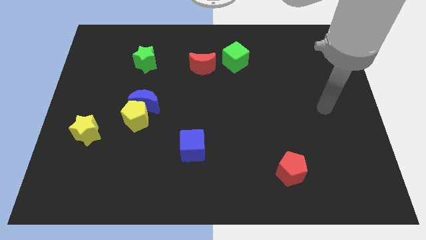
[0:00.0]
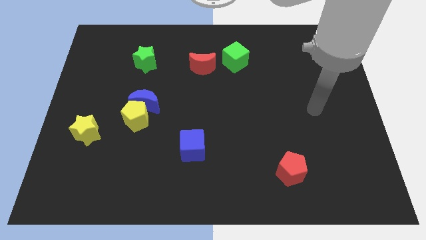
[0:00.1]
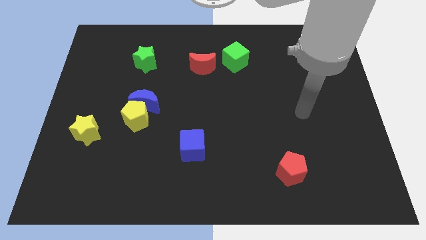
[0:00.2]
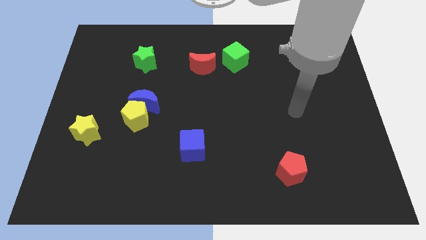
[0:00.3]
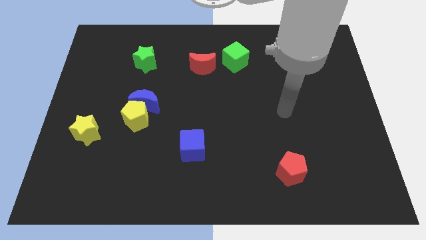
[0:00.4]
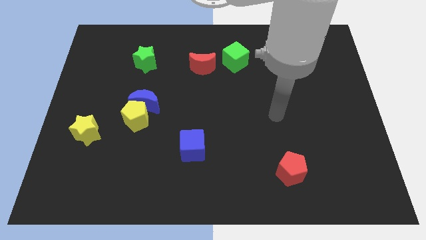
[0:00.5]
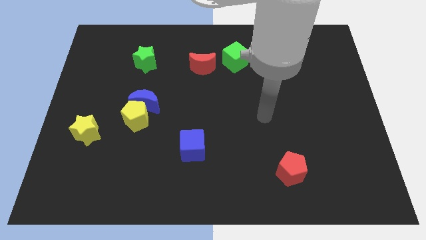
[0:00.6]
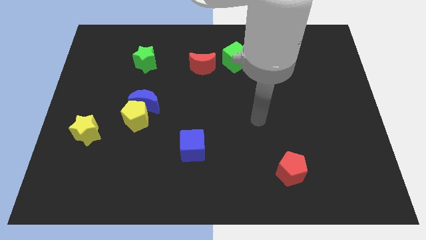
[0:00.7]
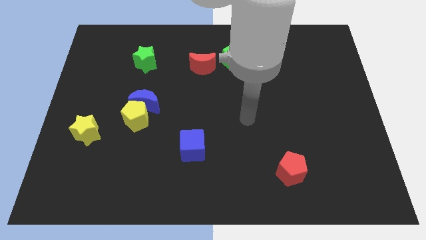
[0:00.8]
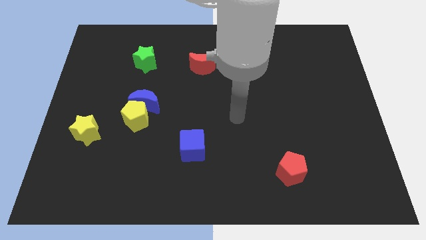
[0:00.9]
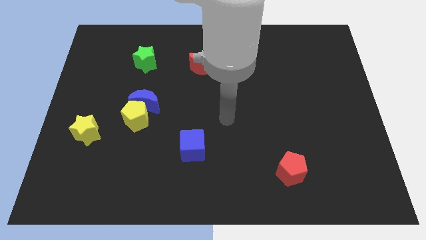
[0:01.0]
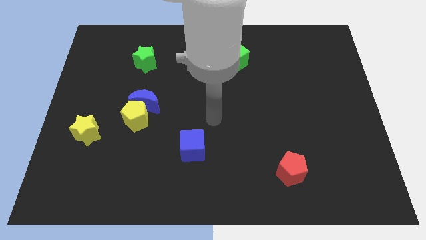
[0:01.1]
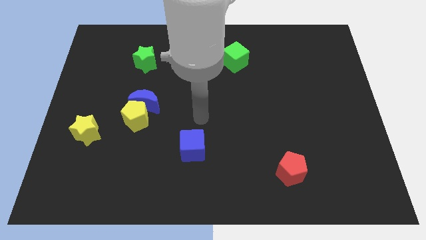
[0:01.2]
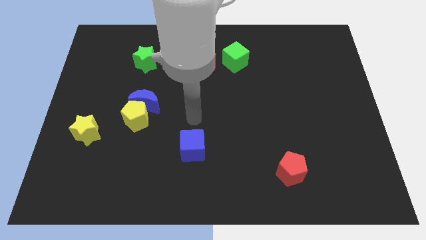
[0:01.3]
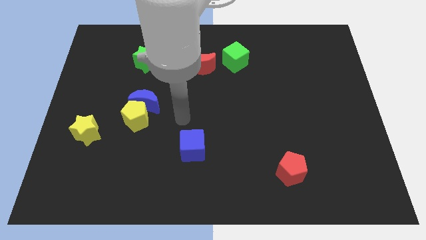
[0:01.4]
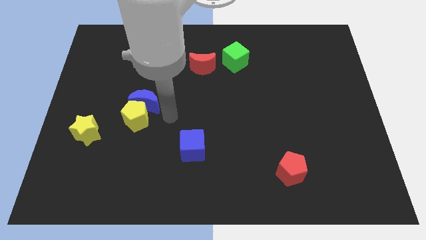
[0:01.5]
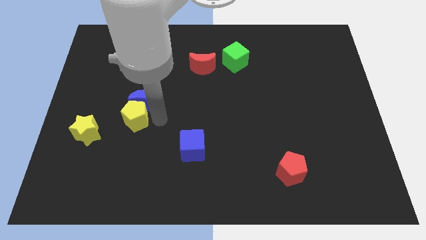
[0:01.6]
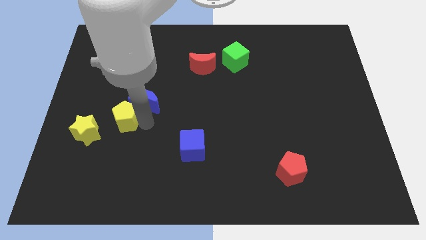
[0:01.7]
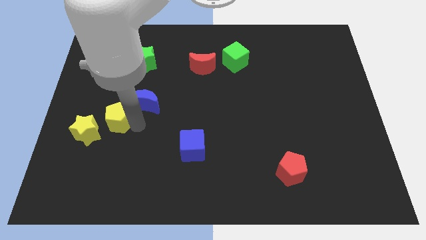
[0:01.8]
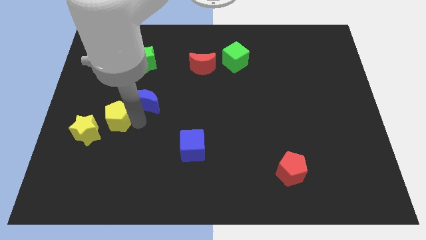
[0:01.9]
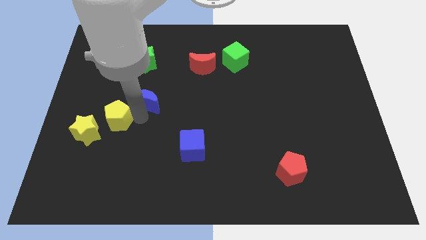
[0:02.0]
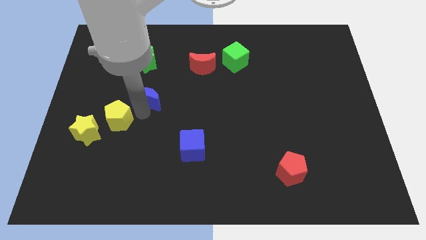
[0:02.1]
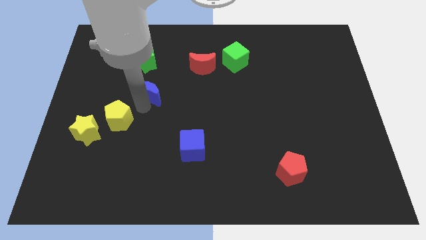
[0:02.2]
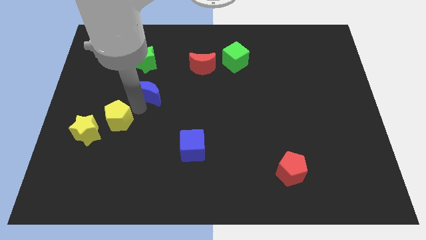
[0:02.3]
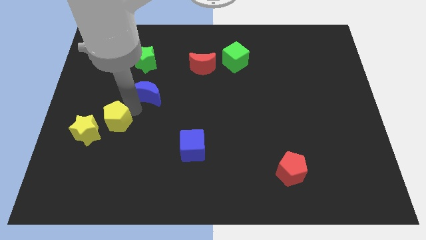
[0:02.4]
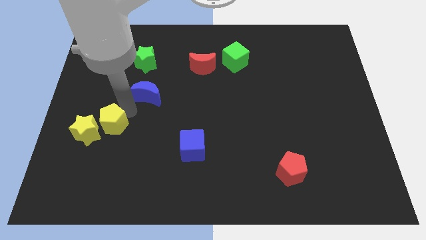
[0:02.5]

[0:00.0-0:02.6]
pull the blue moon apart from the yellow pentagon

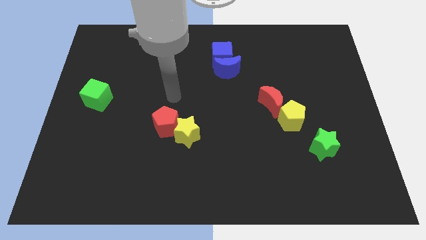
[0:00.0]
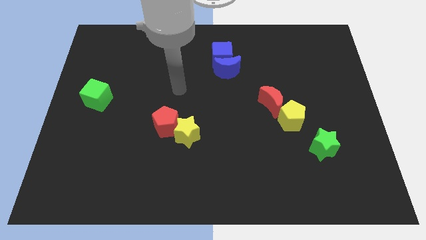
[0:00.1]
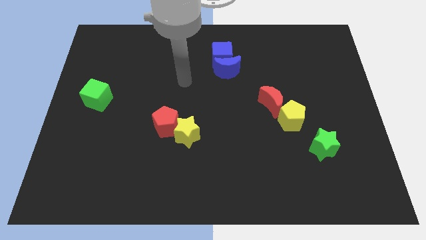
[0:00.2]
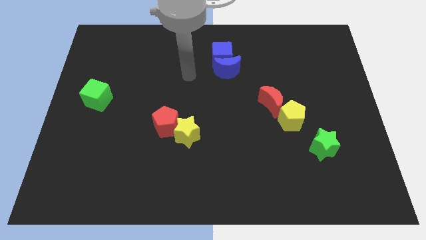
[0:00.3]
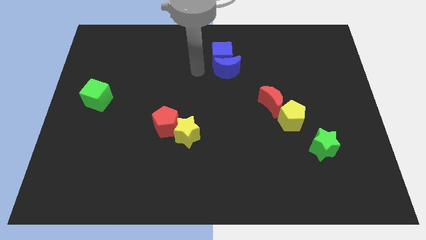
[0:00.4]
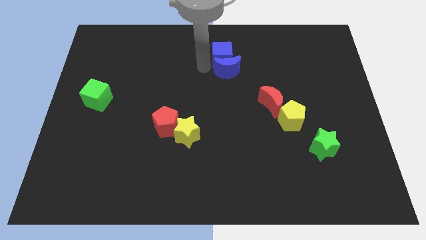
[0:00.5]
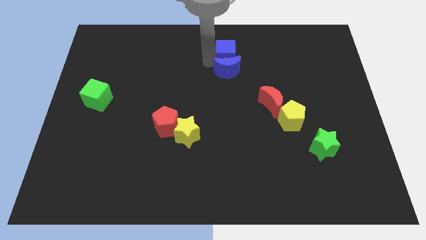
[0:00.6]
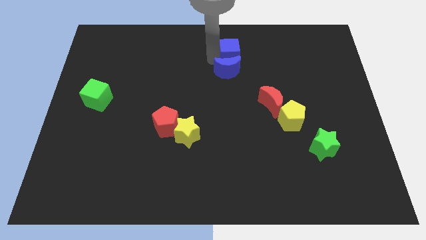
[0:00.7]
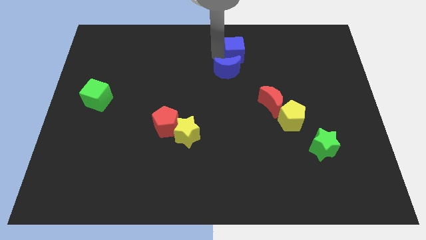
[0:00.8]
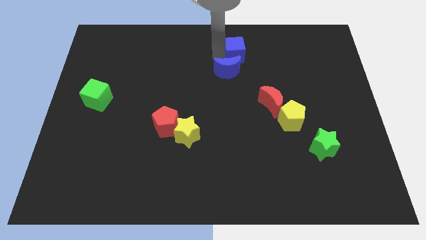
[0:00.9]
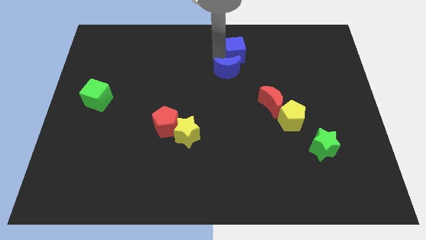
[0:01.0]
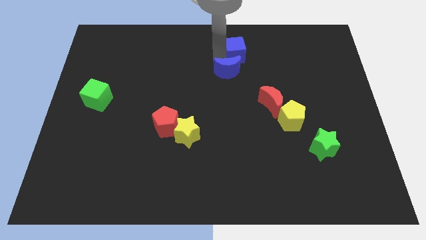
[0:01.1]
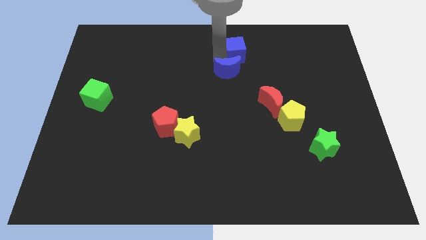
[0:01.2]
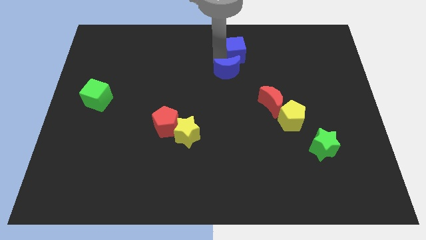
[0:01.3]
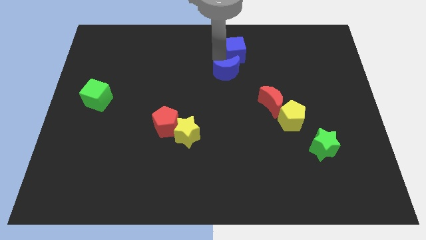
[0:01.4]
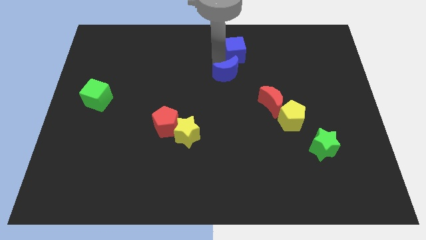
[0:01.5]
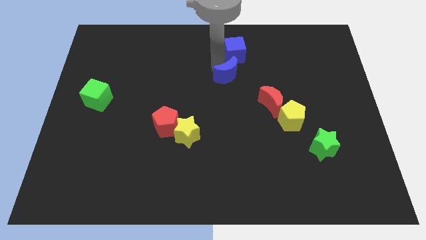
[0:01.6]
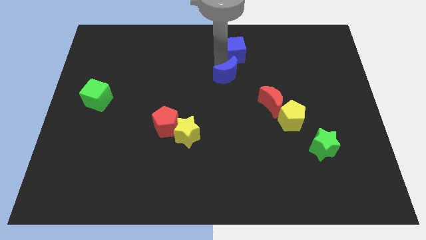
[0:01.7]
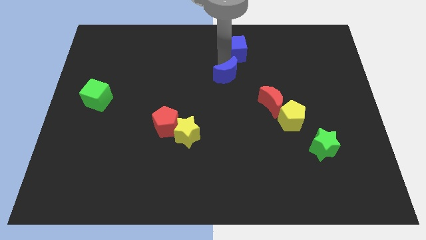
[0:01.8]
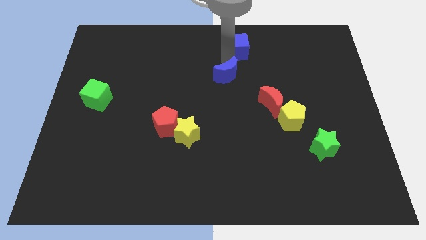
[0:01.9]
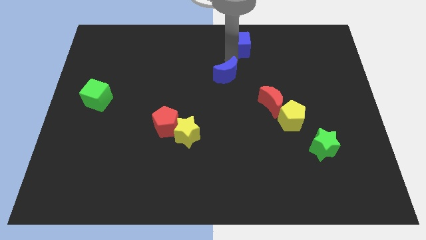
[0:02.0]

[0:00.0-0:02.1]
separate the blue moon from the blue cube

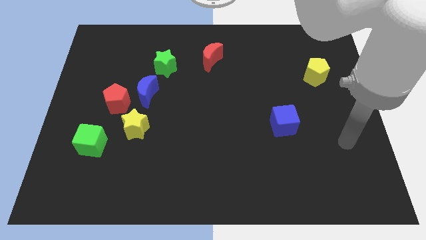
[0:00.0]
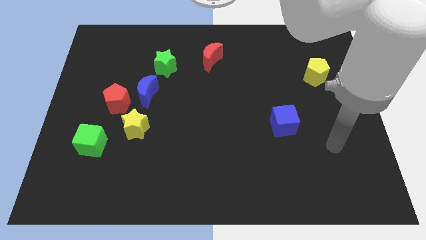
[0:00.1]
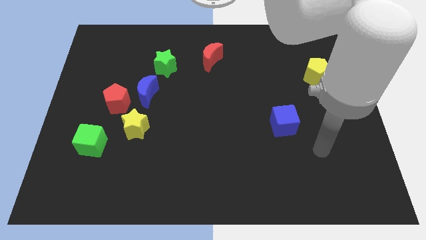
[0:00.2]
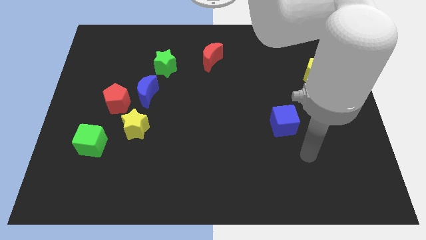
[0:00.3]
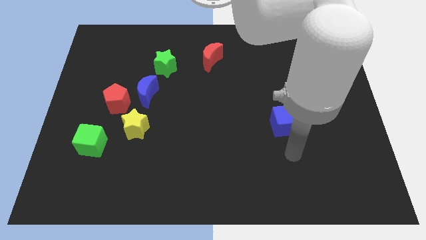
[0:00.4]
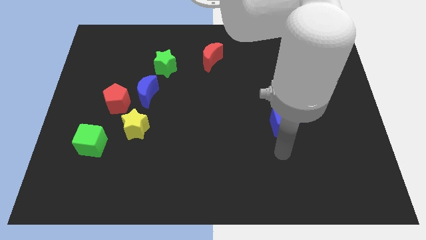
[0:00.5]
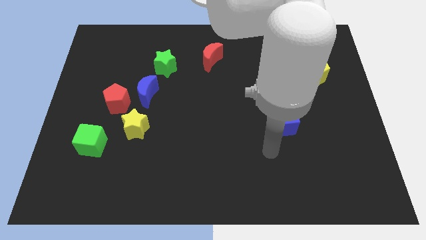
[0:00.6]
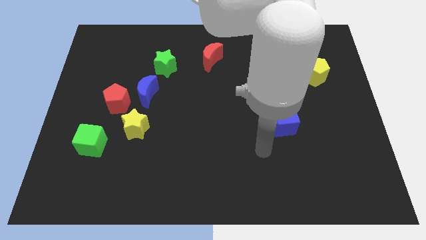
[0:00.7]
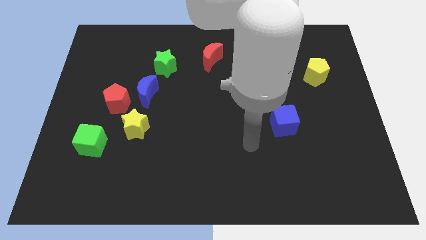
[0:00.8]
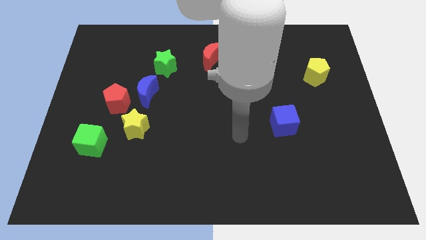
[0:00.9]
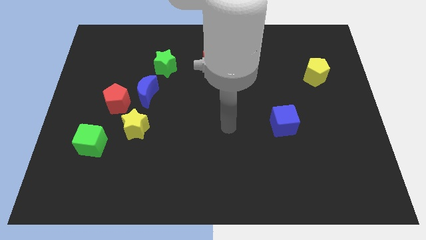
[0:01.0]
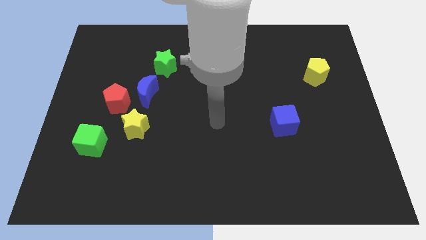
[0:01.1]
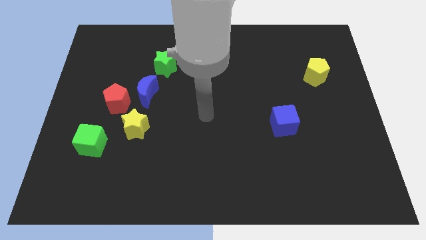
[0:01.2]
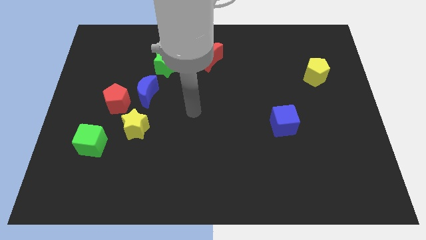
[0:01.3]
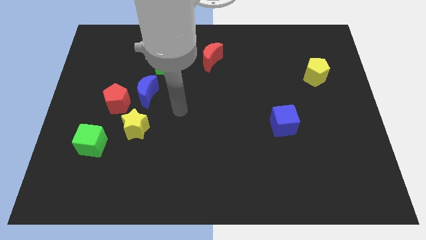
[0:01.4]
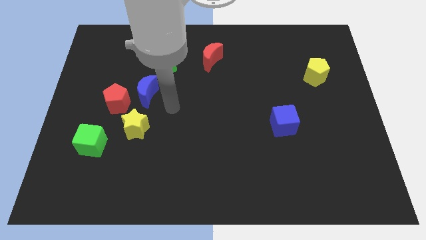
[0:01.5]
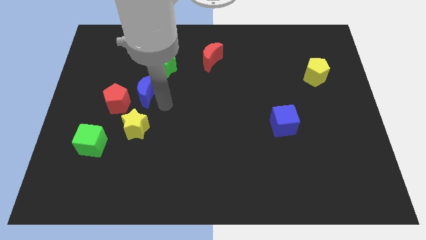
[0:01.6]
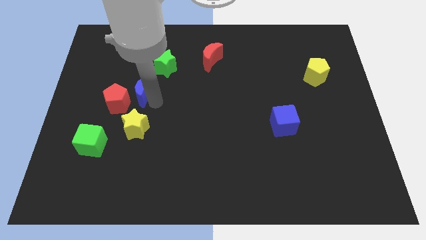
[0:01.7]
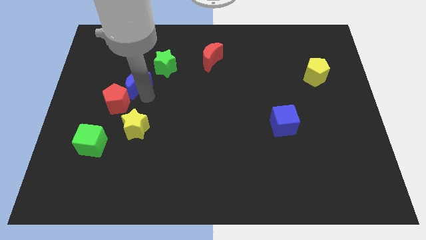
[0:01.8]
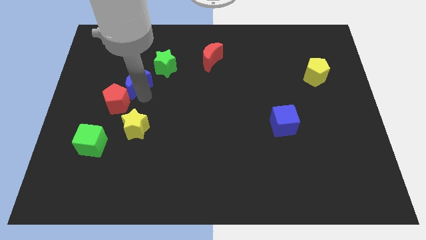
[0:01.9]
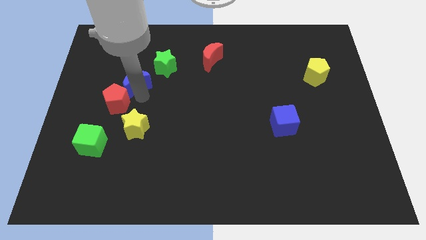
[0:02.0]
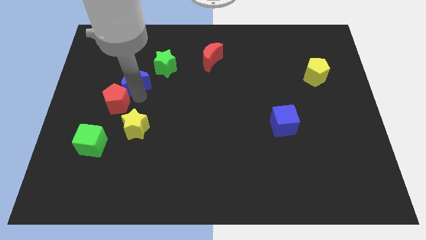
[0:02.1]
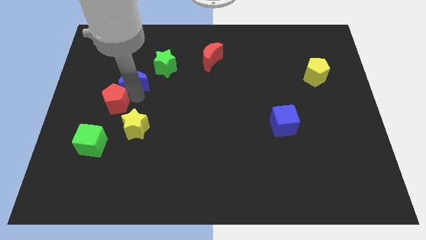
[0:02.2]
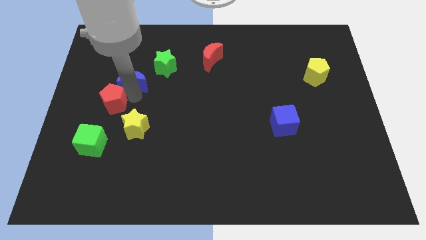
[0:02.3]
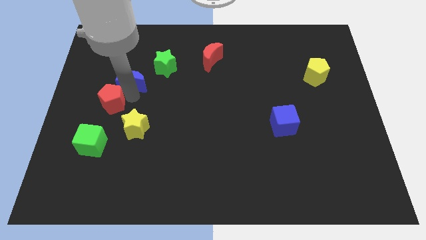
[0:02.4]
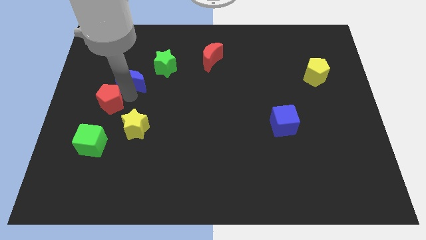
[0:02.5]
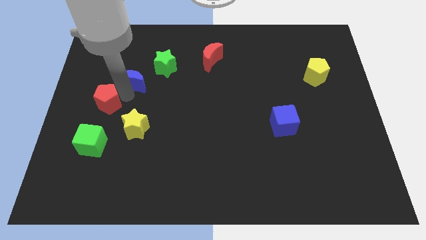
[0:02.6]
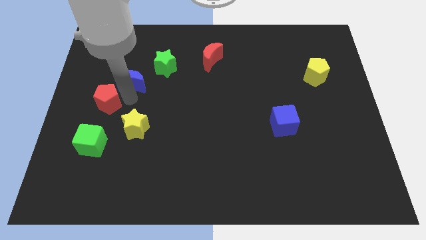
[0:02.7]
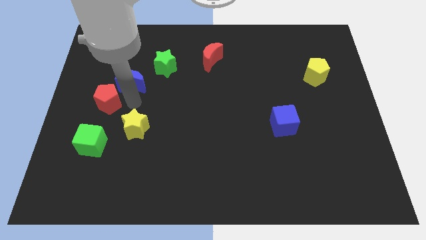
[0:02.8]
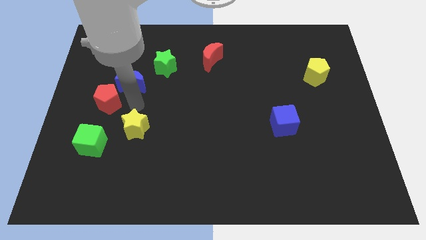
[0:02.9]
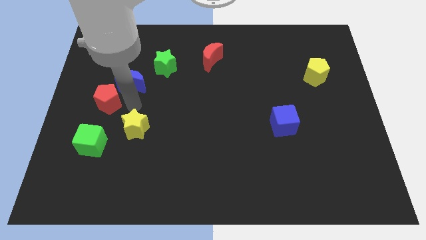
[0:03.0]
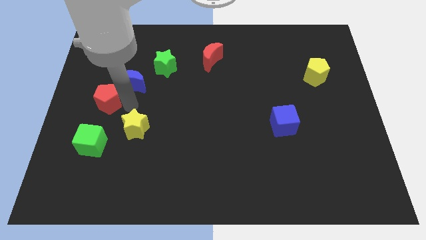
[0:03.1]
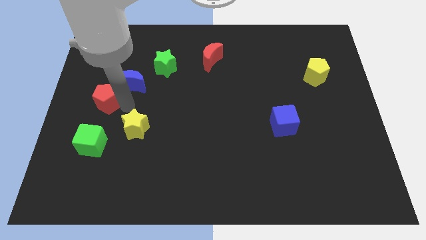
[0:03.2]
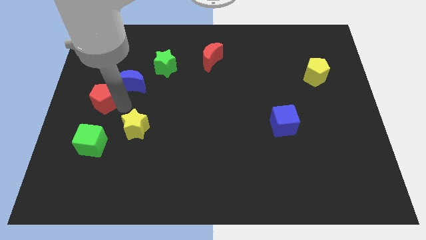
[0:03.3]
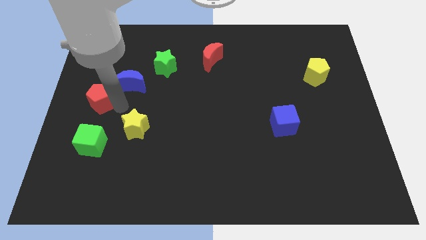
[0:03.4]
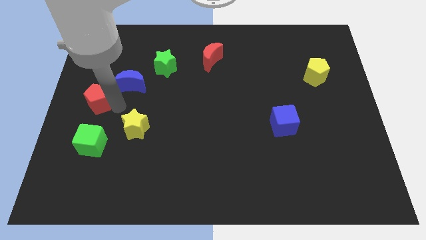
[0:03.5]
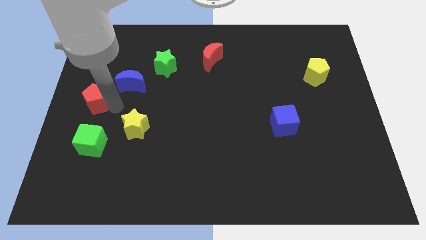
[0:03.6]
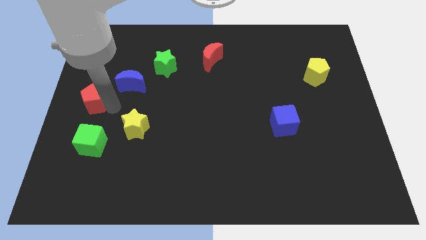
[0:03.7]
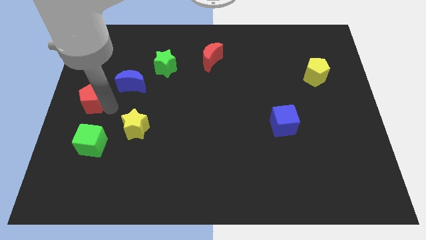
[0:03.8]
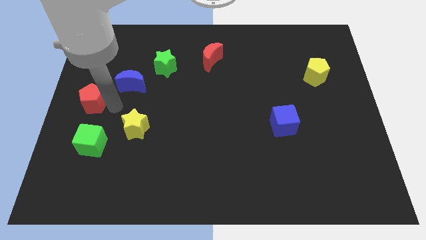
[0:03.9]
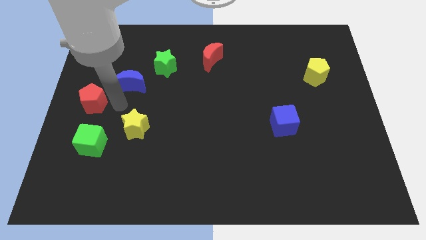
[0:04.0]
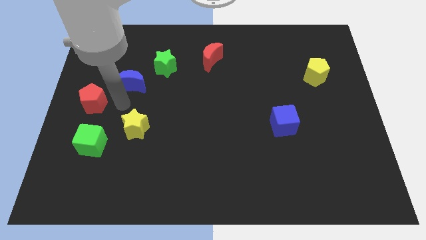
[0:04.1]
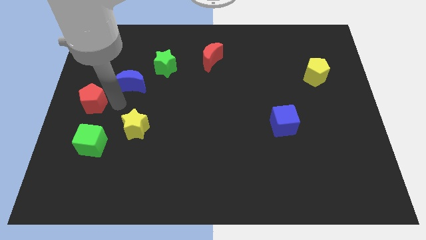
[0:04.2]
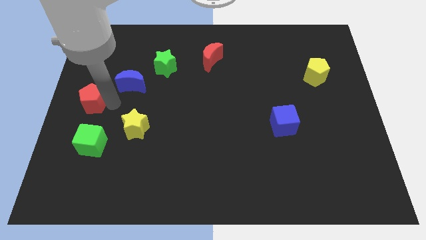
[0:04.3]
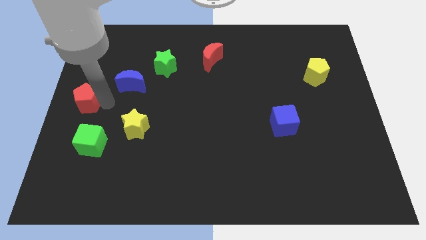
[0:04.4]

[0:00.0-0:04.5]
separate the red pentagon from the blue moon and yellow star

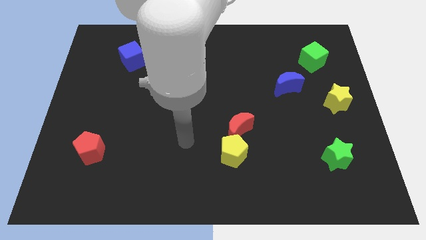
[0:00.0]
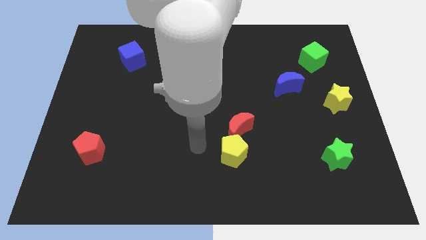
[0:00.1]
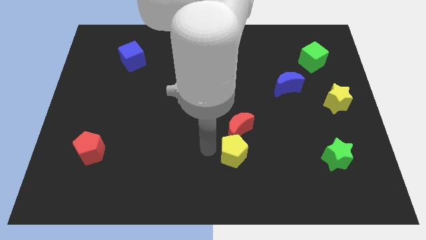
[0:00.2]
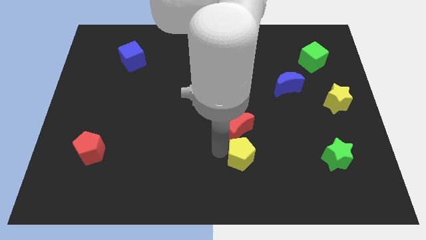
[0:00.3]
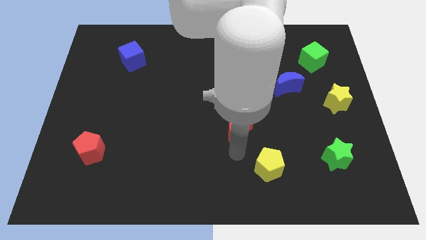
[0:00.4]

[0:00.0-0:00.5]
move the red moon away from the yellow pentagon
